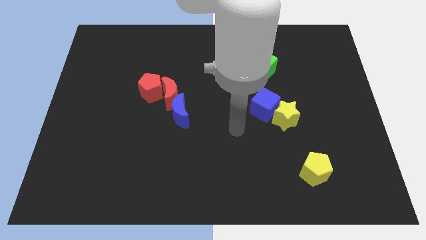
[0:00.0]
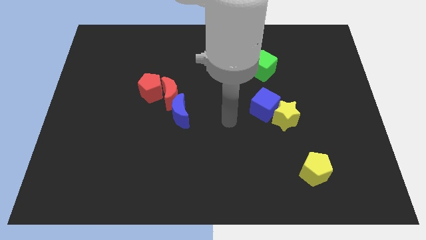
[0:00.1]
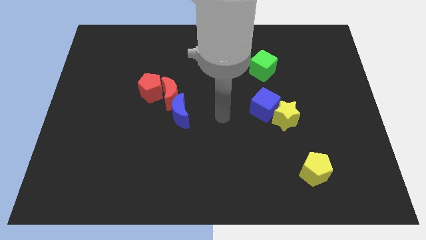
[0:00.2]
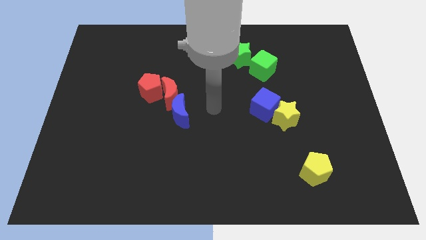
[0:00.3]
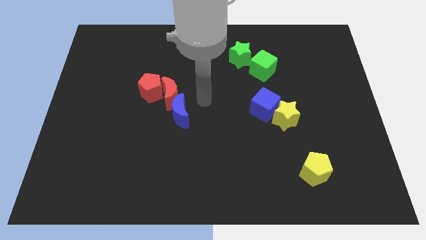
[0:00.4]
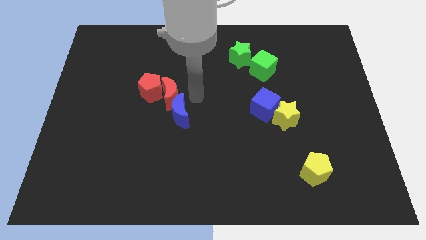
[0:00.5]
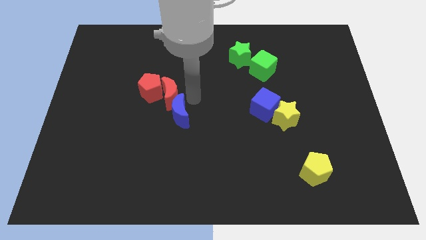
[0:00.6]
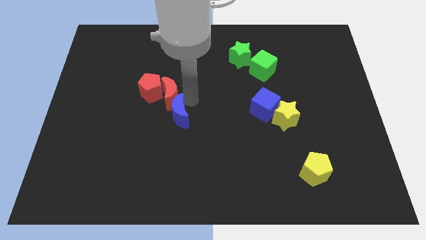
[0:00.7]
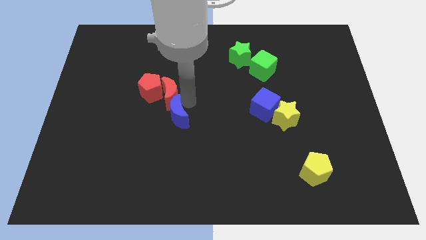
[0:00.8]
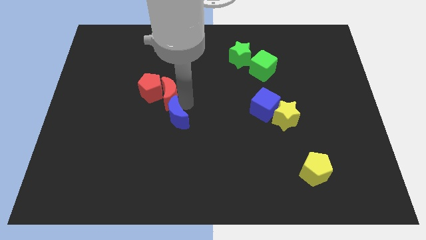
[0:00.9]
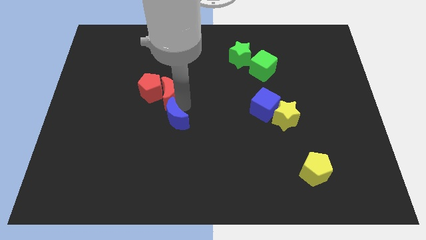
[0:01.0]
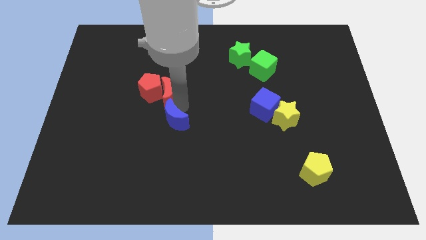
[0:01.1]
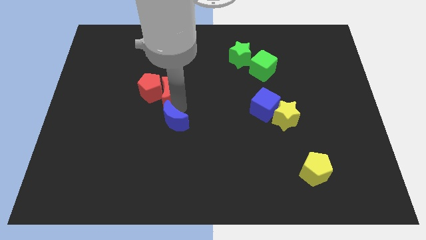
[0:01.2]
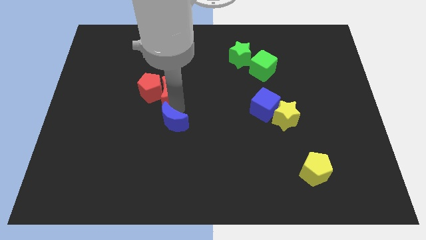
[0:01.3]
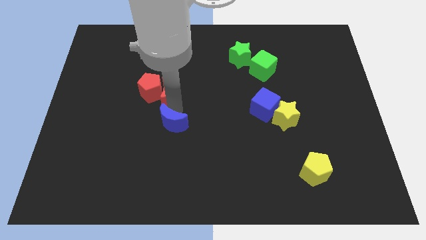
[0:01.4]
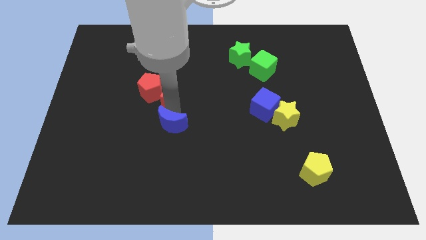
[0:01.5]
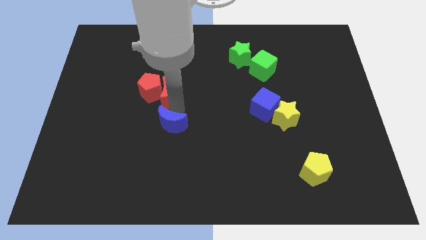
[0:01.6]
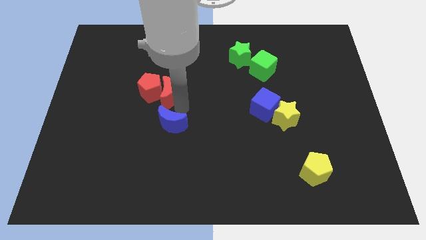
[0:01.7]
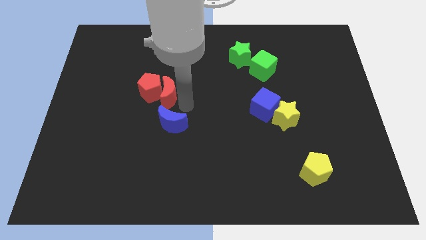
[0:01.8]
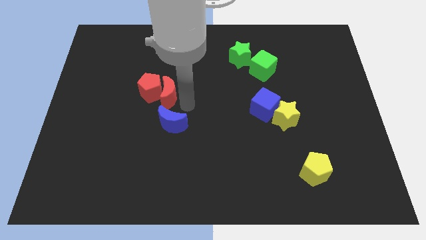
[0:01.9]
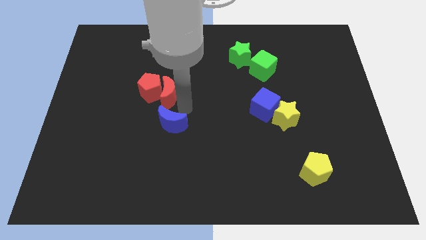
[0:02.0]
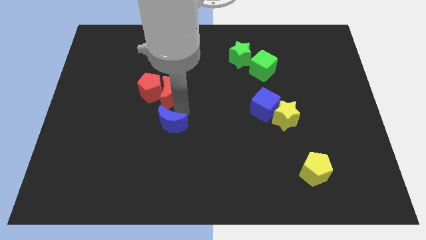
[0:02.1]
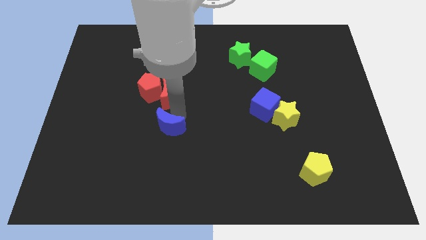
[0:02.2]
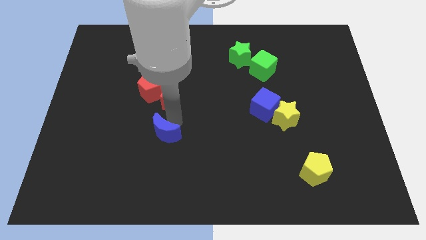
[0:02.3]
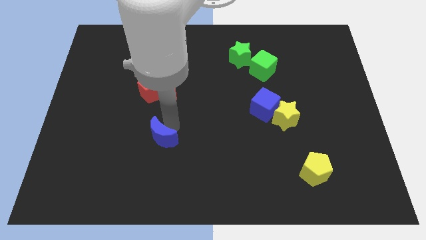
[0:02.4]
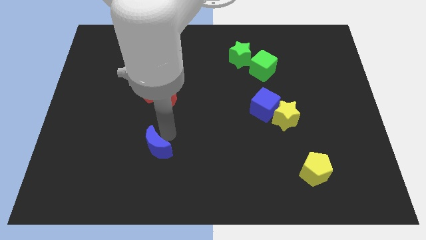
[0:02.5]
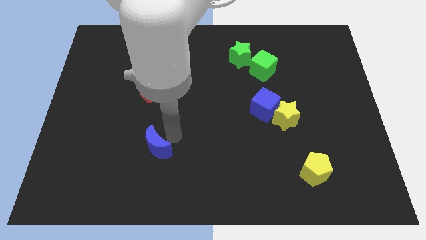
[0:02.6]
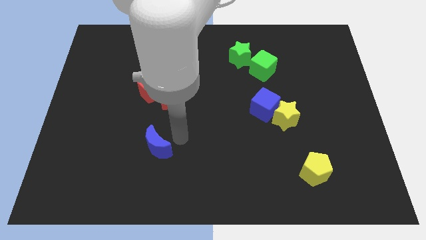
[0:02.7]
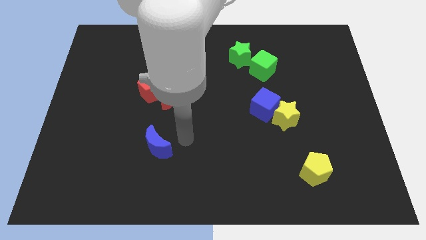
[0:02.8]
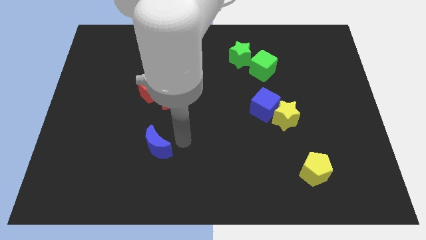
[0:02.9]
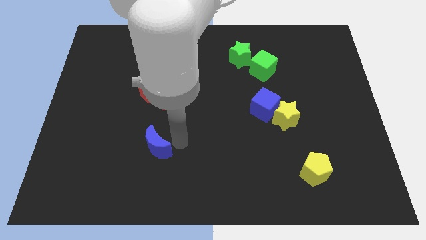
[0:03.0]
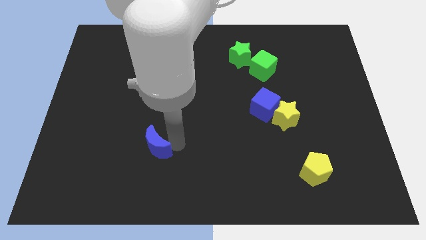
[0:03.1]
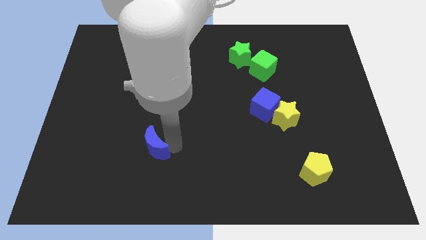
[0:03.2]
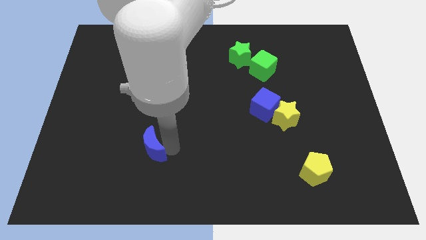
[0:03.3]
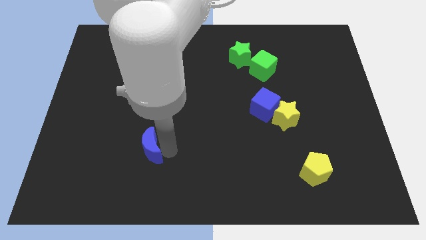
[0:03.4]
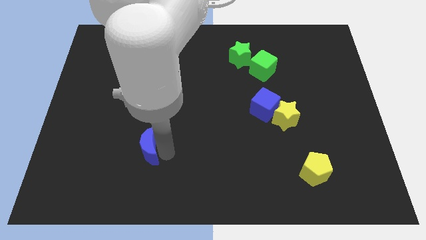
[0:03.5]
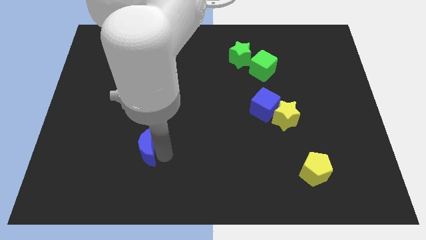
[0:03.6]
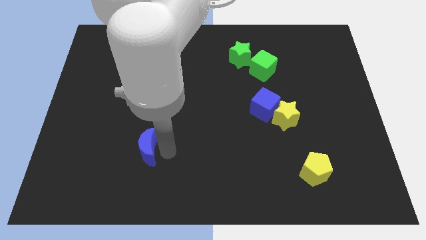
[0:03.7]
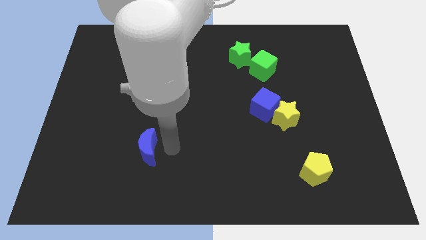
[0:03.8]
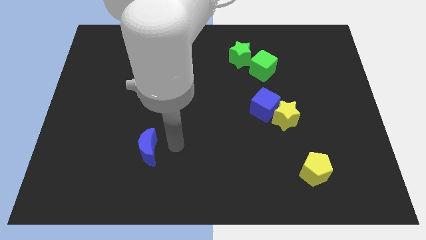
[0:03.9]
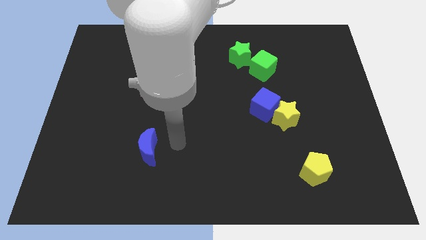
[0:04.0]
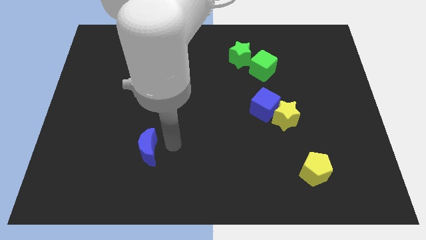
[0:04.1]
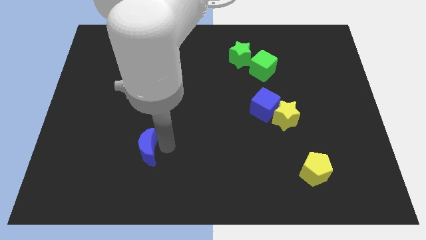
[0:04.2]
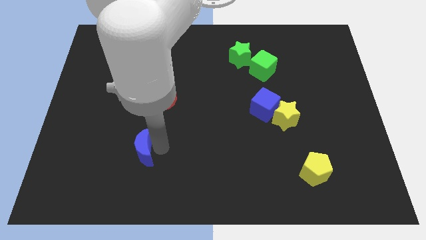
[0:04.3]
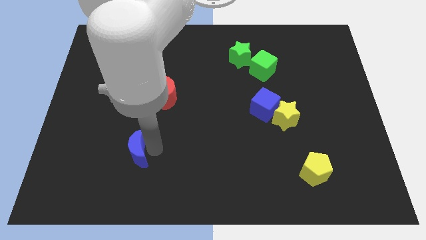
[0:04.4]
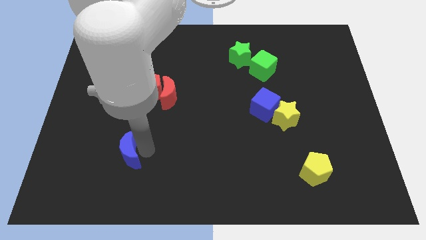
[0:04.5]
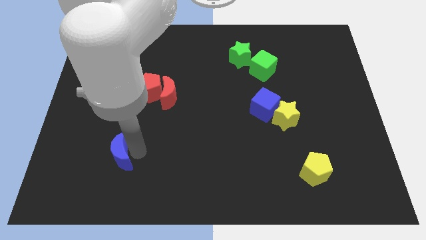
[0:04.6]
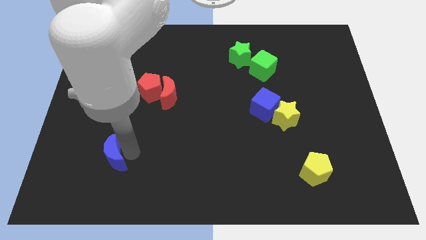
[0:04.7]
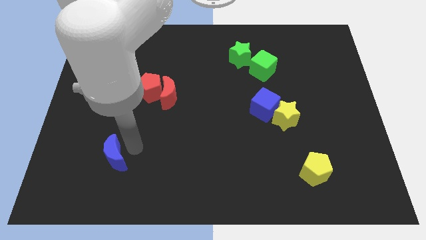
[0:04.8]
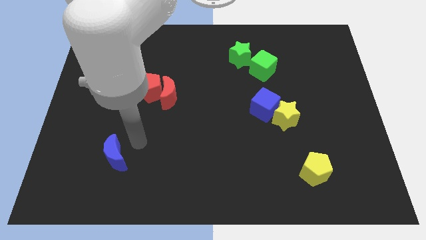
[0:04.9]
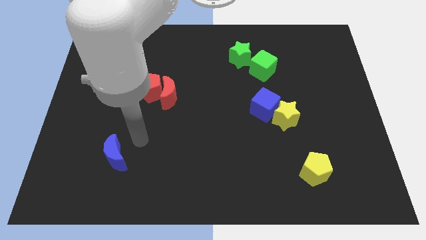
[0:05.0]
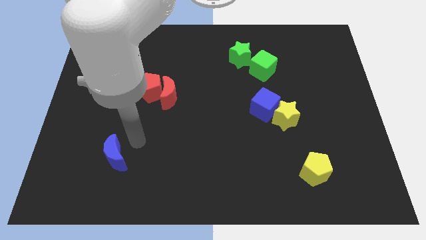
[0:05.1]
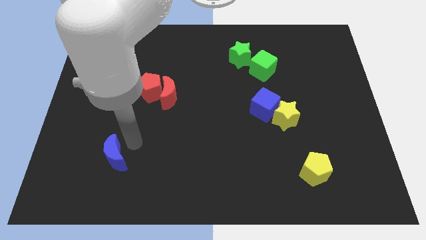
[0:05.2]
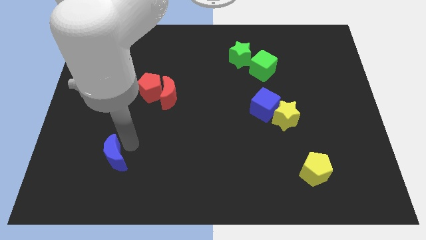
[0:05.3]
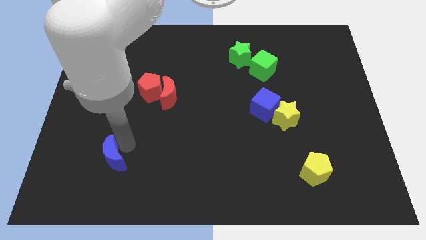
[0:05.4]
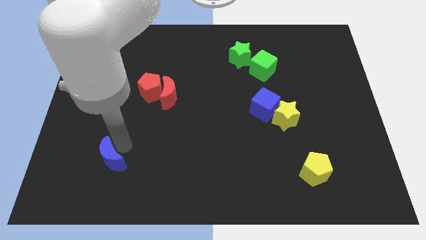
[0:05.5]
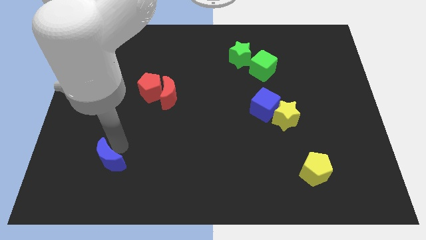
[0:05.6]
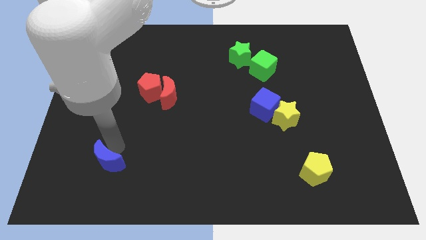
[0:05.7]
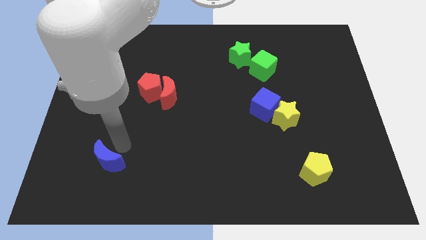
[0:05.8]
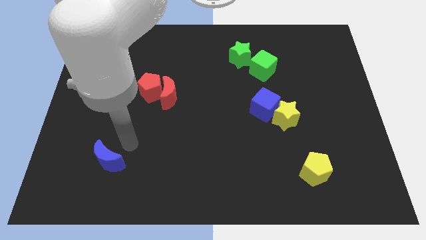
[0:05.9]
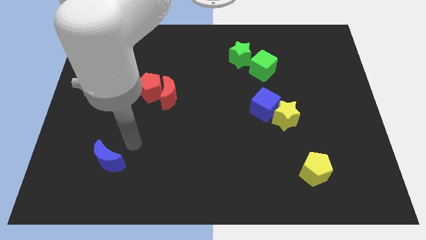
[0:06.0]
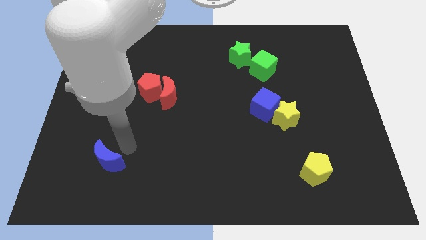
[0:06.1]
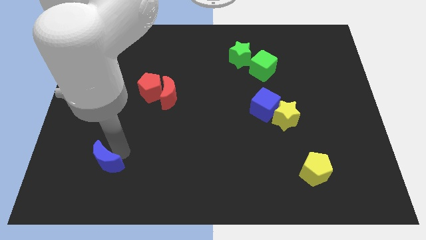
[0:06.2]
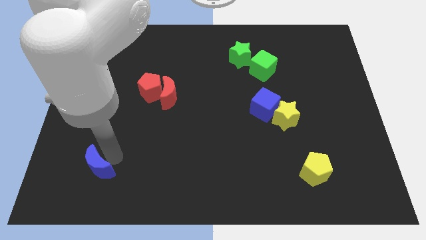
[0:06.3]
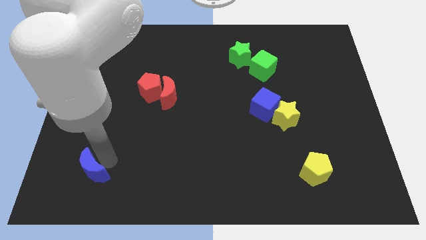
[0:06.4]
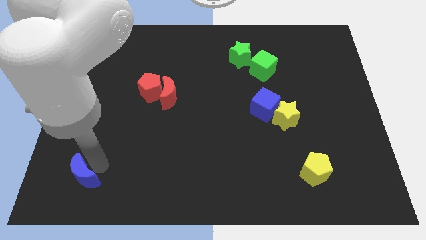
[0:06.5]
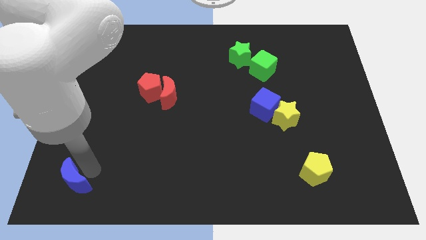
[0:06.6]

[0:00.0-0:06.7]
push the blue moon to the bottom left

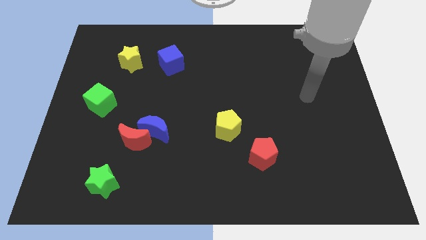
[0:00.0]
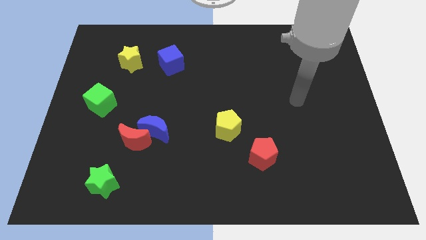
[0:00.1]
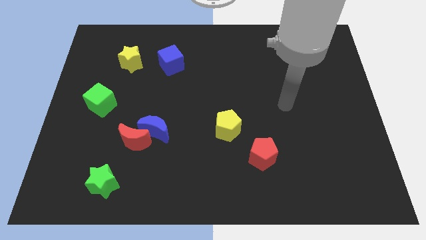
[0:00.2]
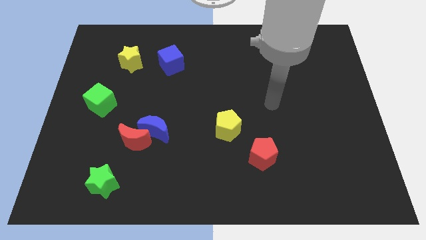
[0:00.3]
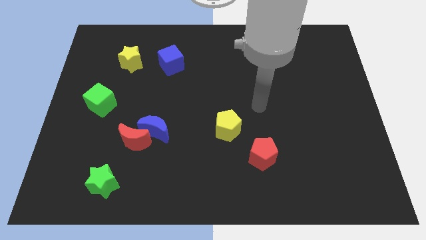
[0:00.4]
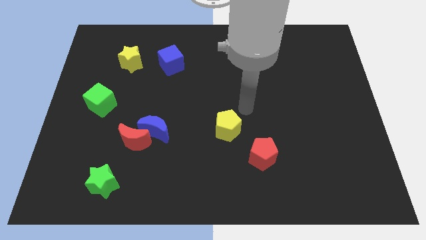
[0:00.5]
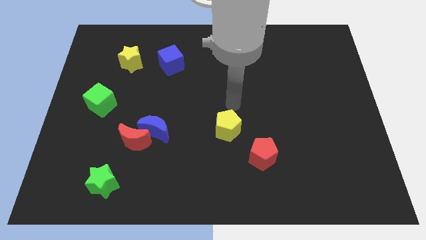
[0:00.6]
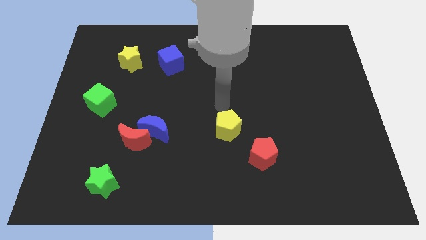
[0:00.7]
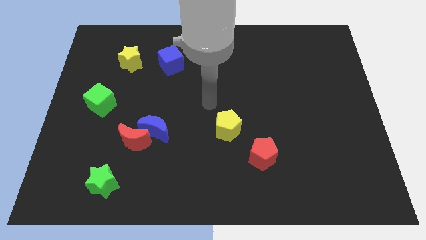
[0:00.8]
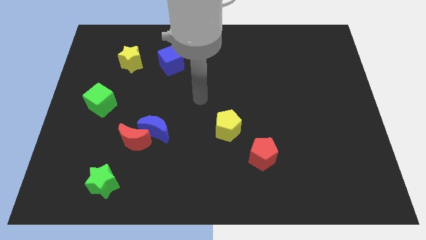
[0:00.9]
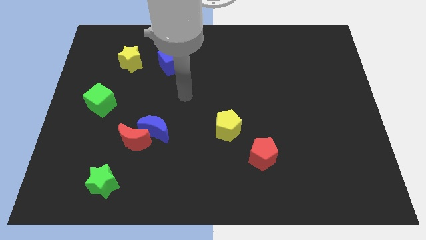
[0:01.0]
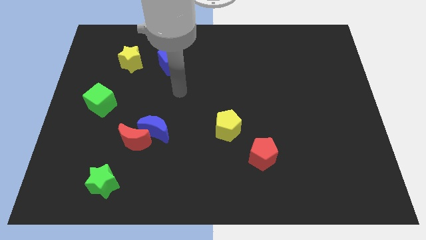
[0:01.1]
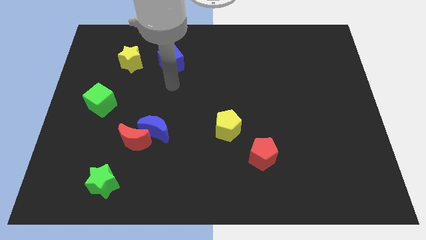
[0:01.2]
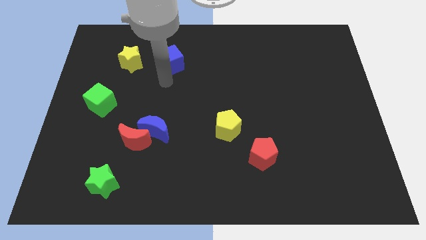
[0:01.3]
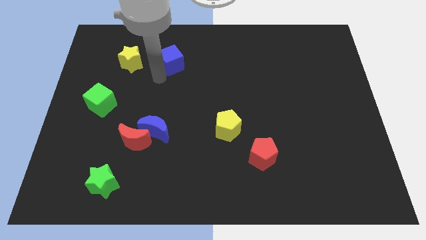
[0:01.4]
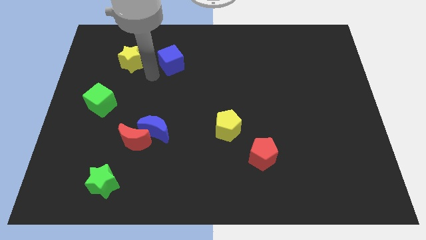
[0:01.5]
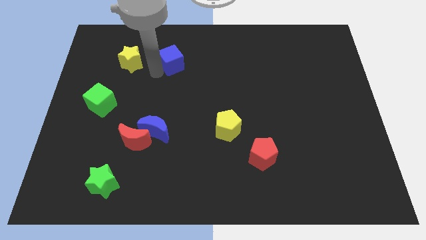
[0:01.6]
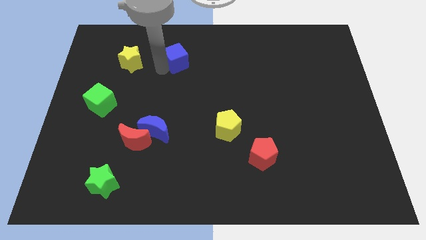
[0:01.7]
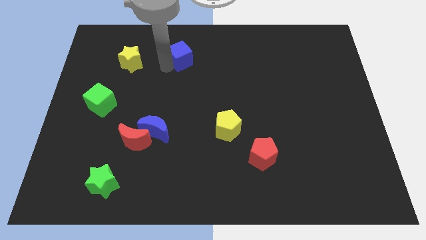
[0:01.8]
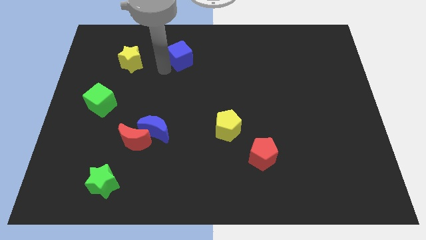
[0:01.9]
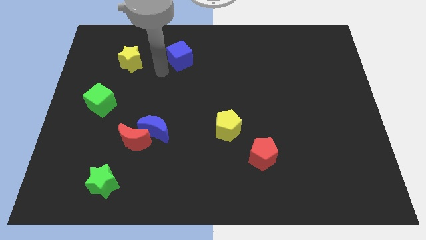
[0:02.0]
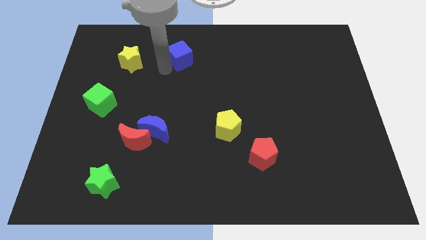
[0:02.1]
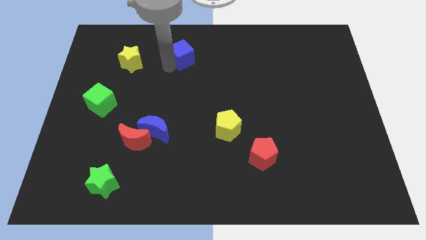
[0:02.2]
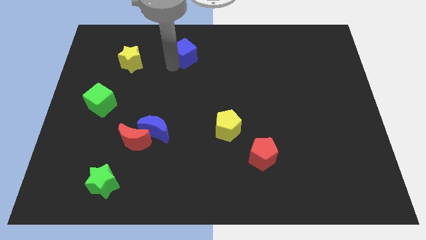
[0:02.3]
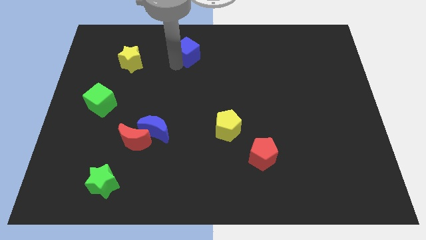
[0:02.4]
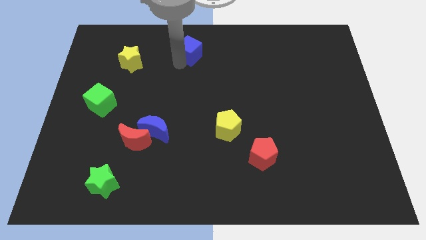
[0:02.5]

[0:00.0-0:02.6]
slide the blue cube to the towards your base
